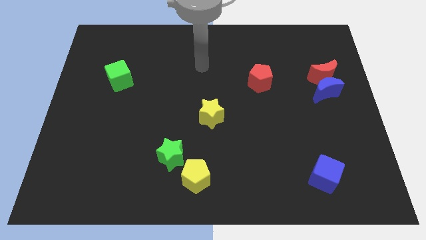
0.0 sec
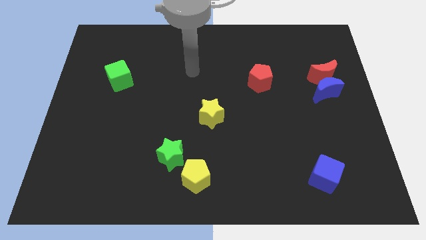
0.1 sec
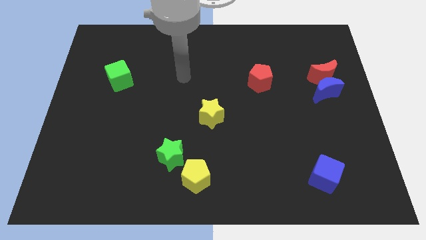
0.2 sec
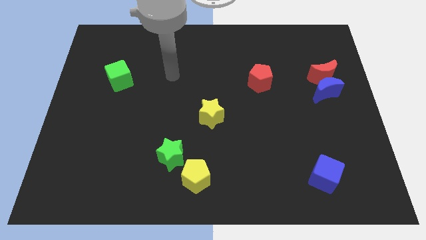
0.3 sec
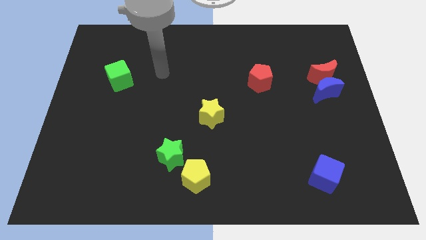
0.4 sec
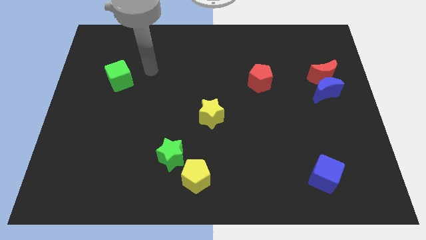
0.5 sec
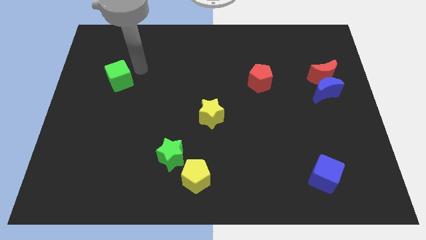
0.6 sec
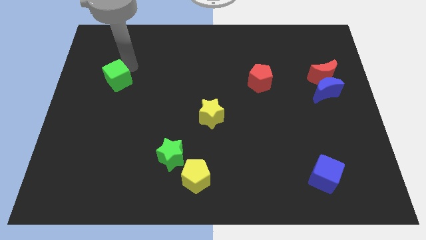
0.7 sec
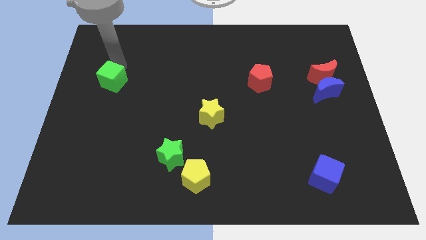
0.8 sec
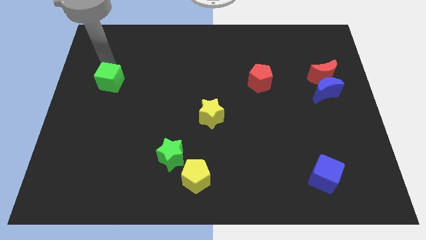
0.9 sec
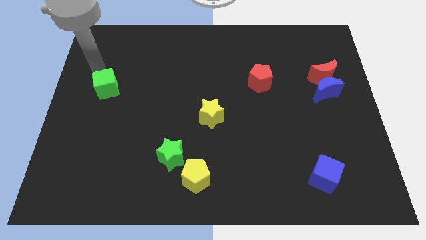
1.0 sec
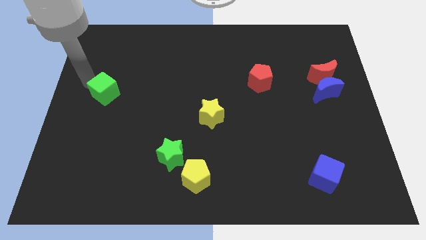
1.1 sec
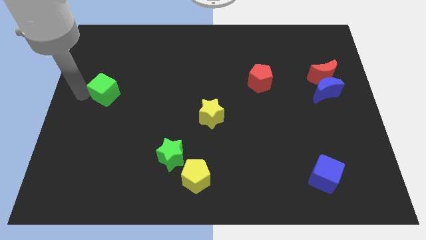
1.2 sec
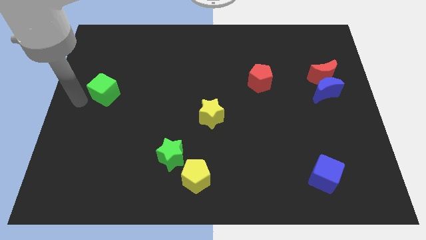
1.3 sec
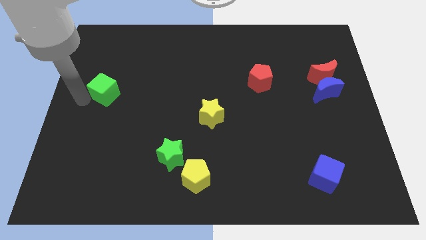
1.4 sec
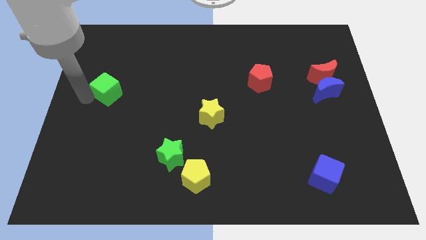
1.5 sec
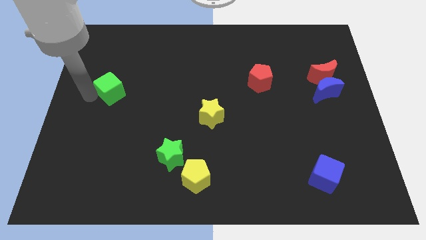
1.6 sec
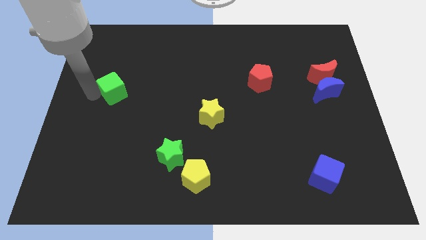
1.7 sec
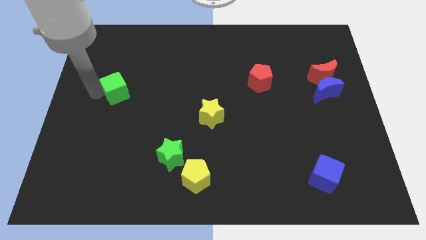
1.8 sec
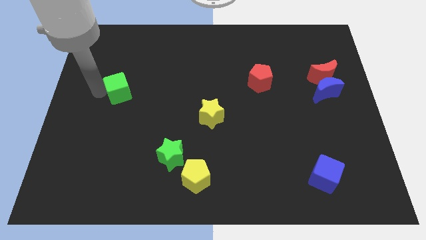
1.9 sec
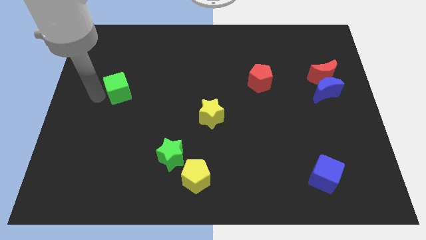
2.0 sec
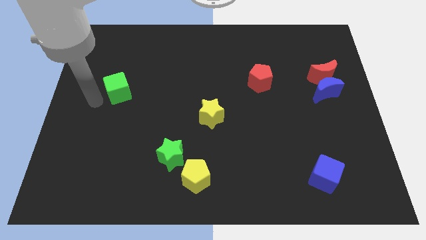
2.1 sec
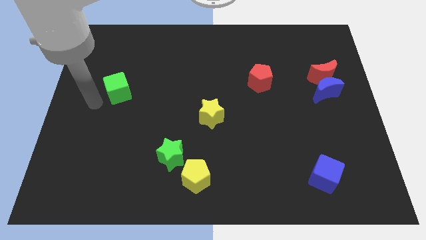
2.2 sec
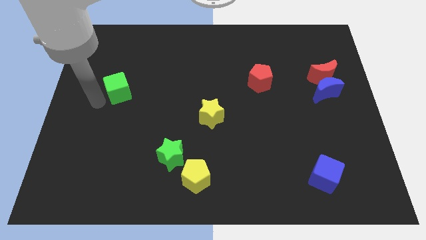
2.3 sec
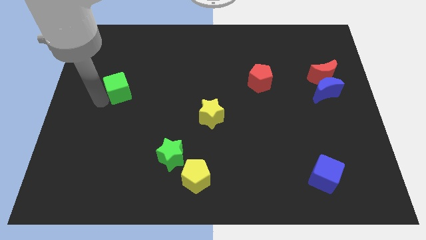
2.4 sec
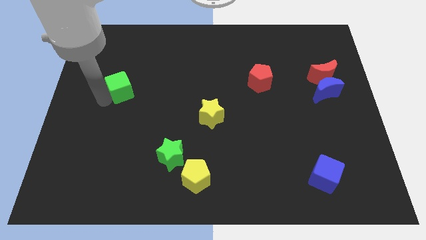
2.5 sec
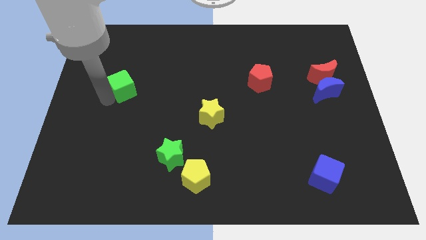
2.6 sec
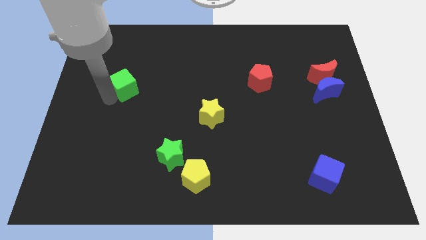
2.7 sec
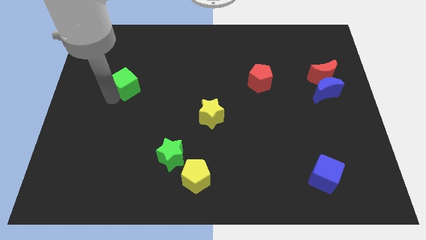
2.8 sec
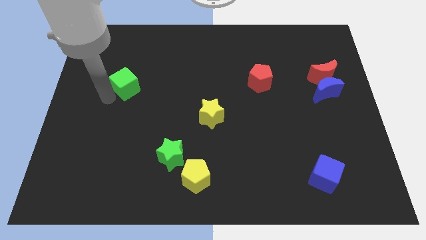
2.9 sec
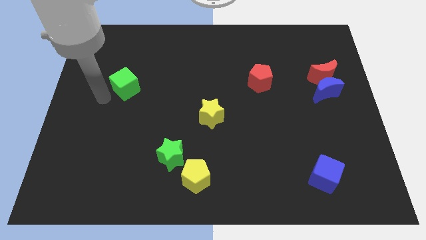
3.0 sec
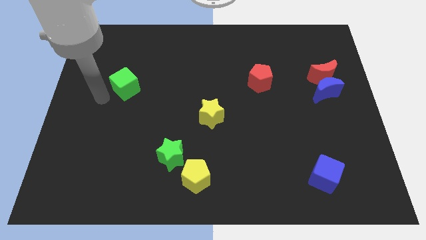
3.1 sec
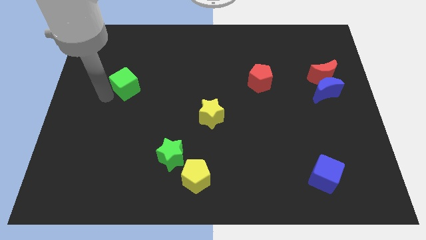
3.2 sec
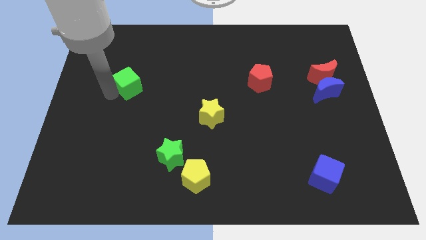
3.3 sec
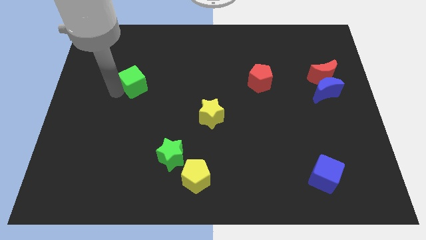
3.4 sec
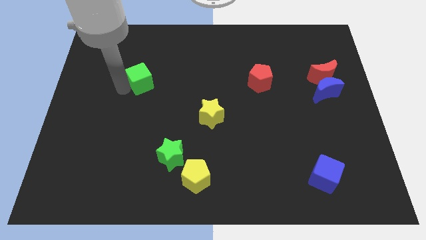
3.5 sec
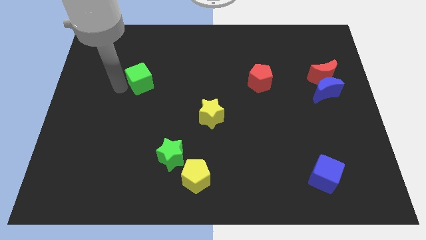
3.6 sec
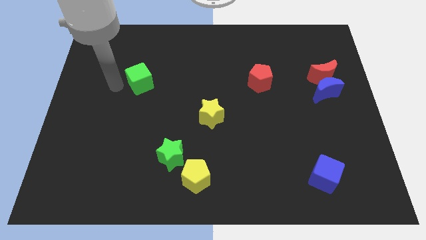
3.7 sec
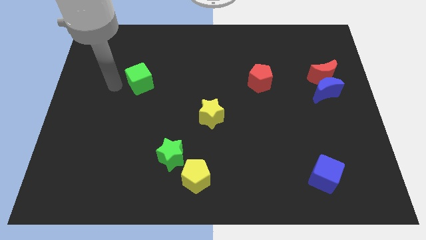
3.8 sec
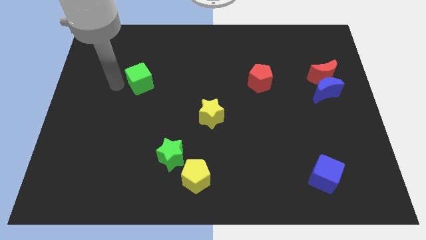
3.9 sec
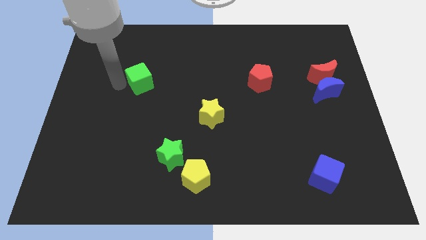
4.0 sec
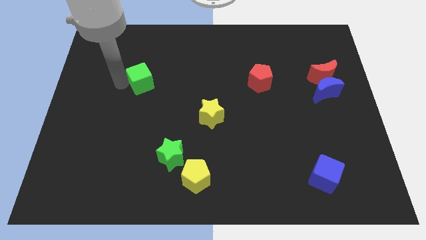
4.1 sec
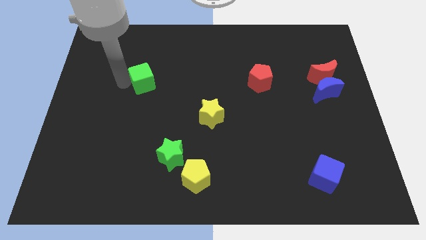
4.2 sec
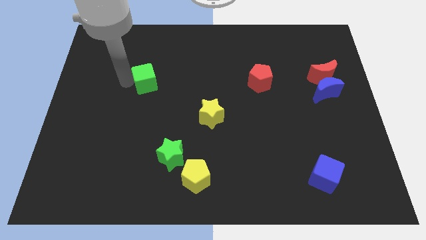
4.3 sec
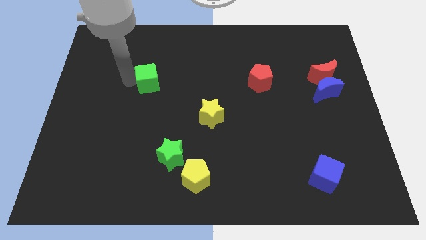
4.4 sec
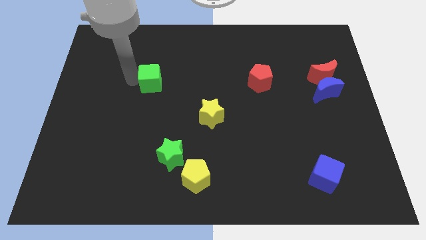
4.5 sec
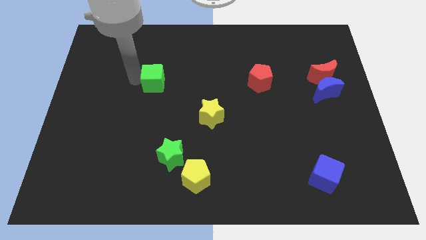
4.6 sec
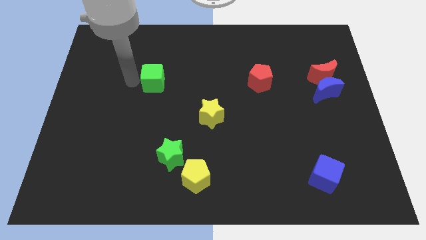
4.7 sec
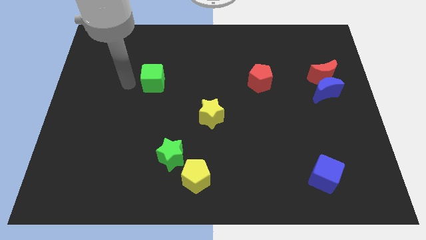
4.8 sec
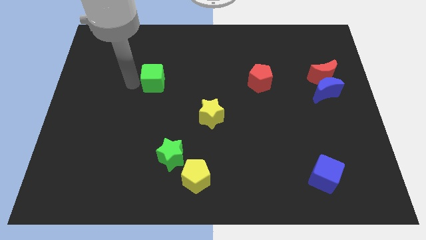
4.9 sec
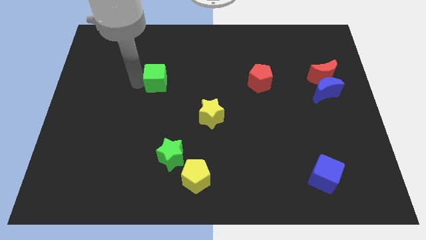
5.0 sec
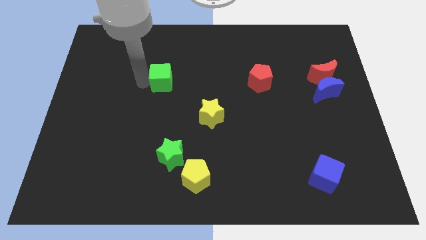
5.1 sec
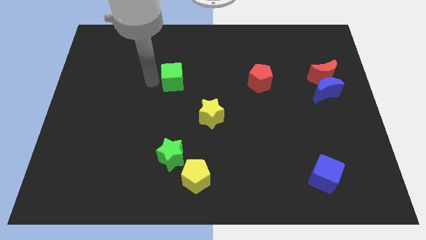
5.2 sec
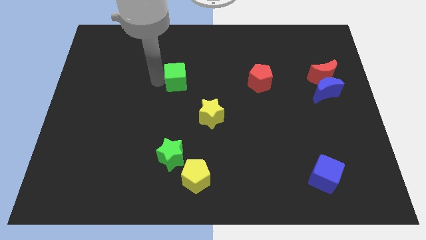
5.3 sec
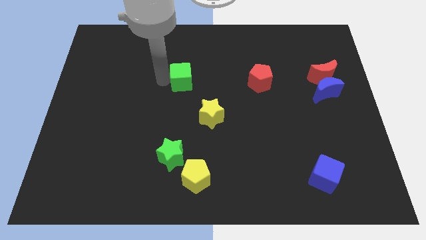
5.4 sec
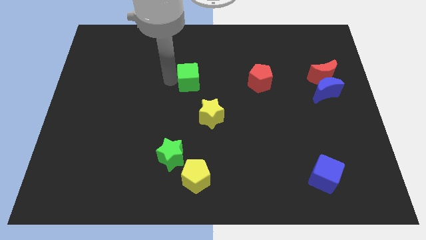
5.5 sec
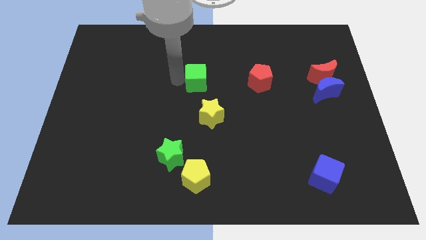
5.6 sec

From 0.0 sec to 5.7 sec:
put the green cube to the top side of the yellow star

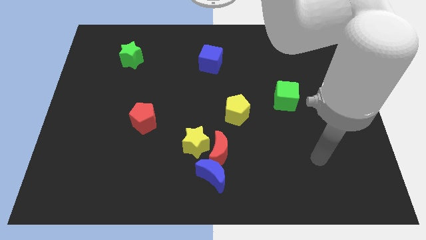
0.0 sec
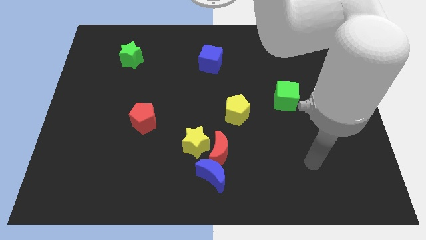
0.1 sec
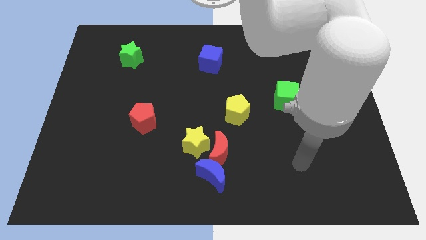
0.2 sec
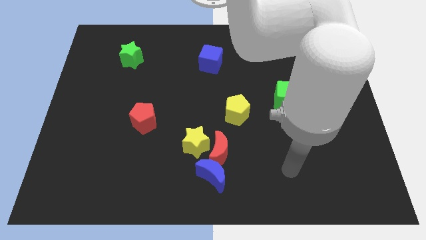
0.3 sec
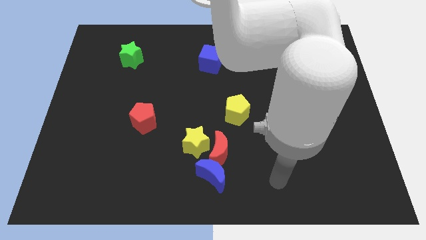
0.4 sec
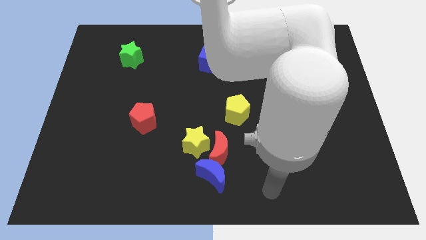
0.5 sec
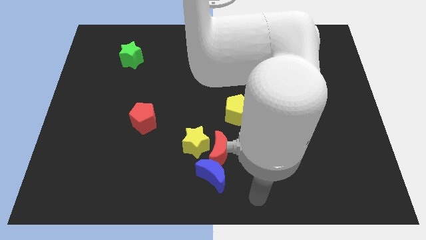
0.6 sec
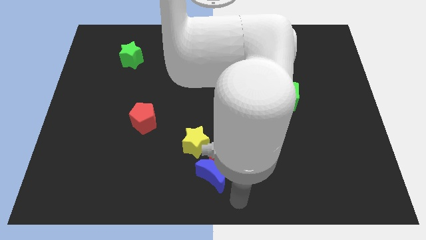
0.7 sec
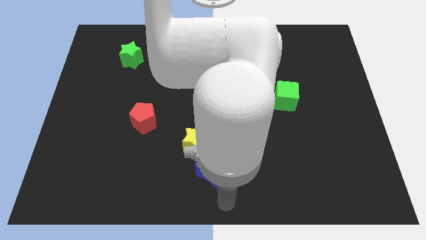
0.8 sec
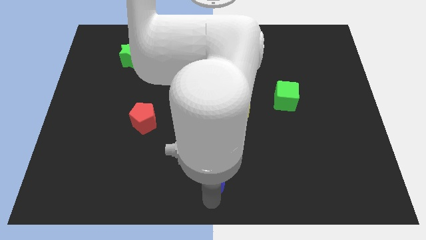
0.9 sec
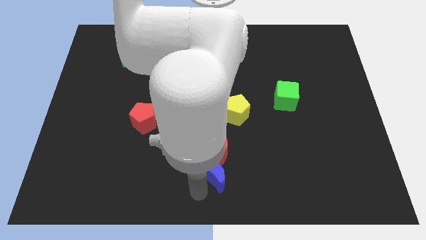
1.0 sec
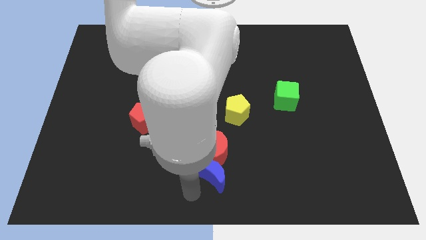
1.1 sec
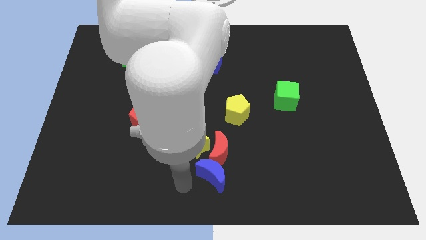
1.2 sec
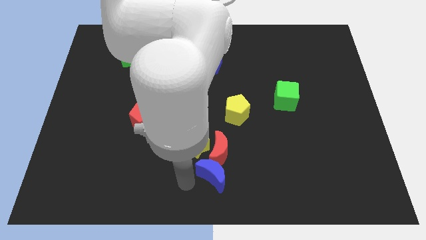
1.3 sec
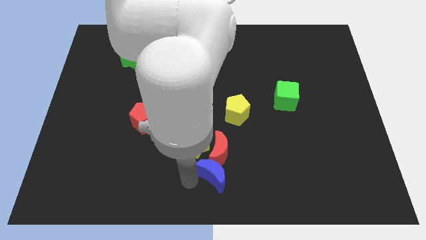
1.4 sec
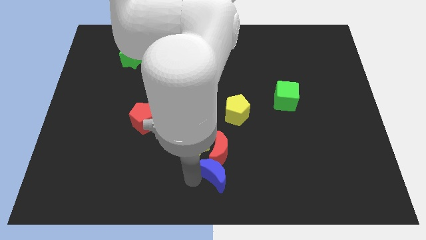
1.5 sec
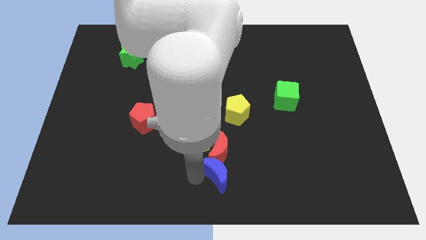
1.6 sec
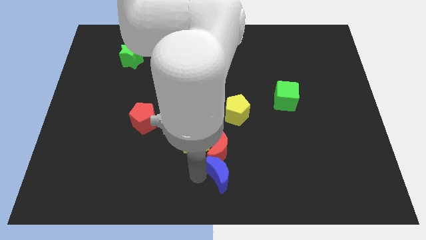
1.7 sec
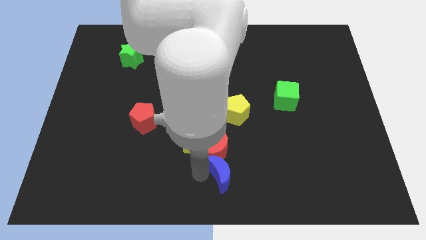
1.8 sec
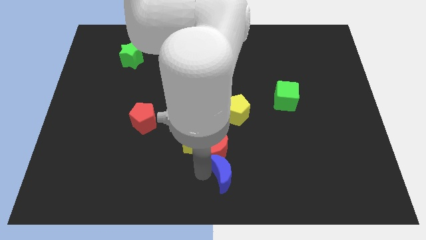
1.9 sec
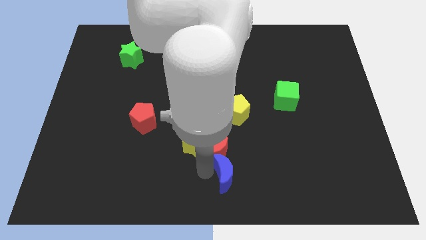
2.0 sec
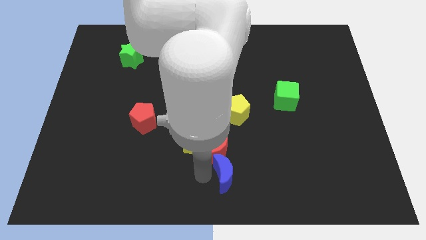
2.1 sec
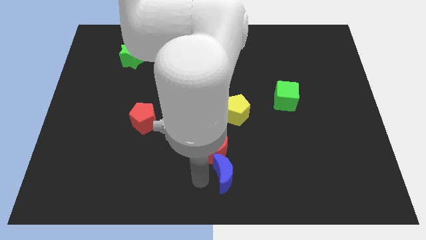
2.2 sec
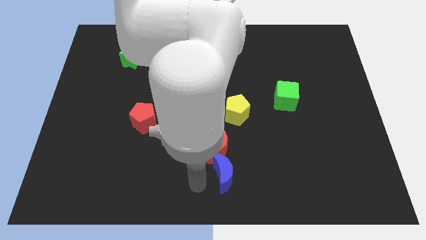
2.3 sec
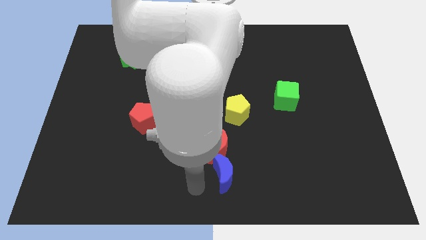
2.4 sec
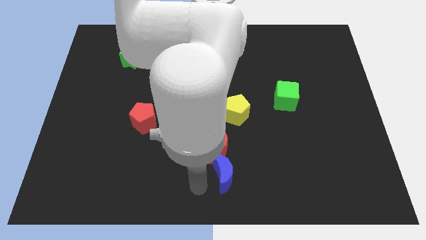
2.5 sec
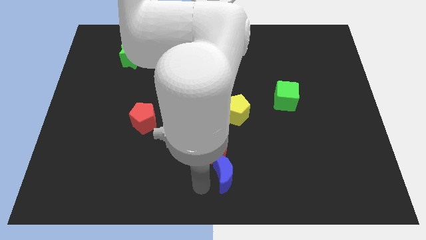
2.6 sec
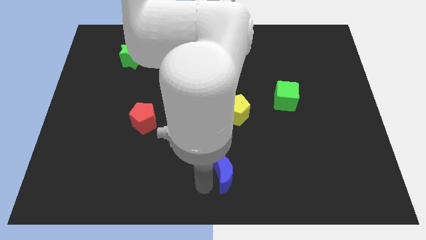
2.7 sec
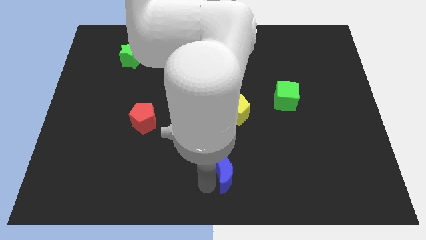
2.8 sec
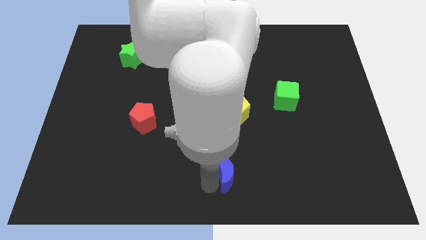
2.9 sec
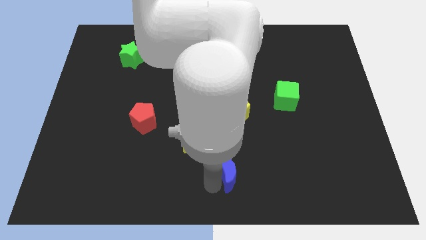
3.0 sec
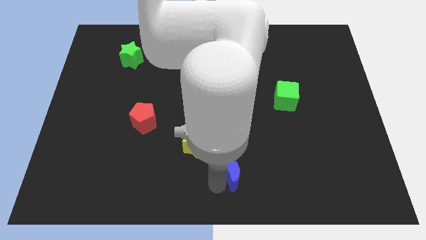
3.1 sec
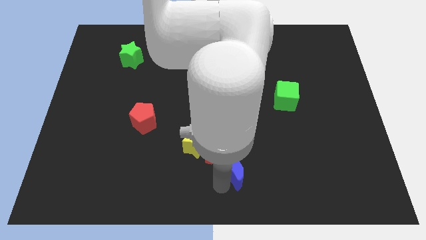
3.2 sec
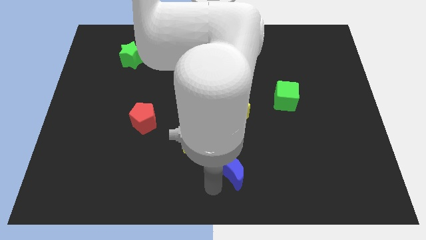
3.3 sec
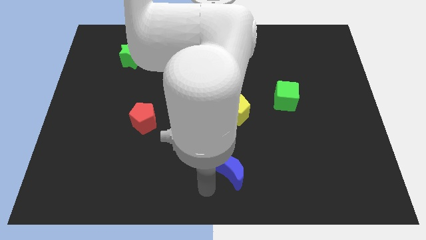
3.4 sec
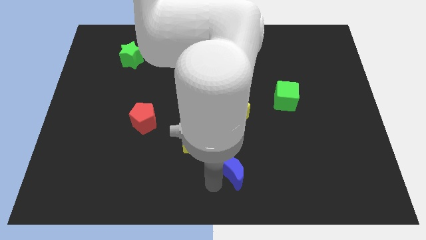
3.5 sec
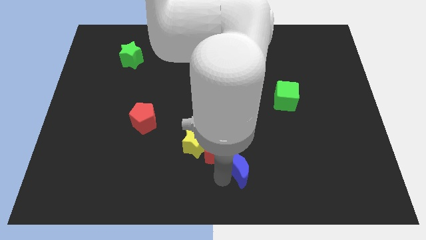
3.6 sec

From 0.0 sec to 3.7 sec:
slide the blue moon right of the red moon
